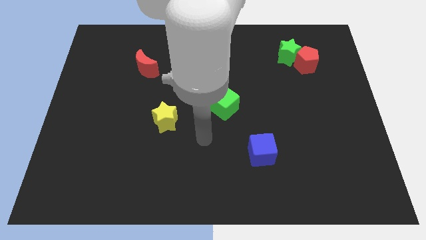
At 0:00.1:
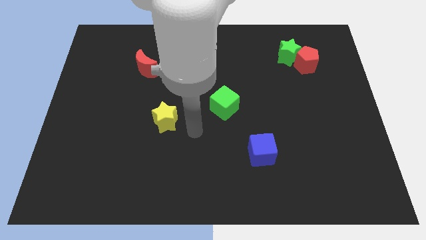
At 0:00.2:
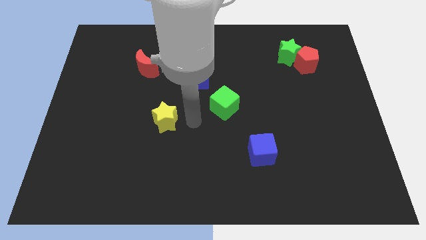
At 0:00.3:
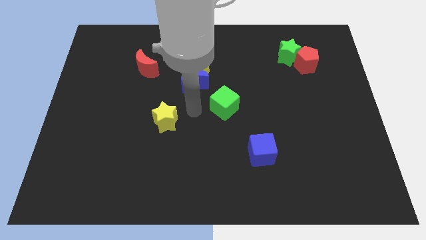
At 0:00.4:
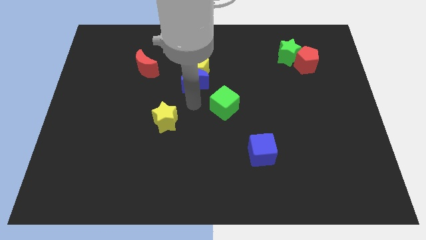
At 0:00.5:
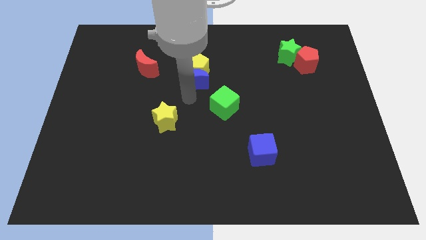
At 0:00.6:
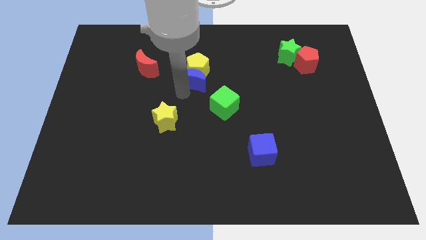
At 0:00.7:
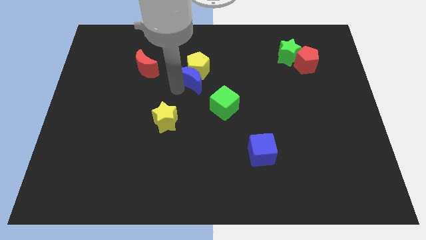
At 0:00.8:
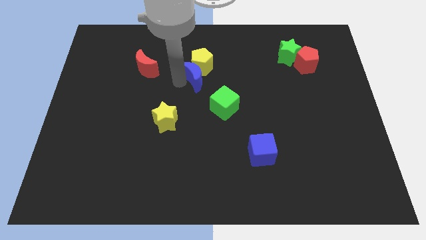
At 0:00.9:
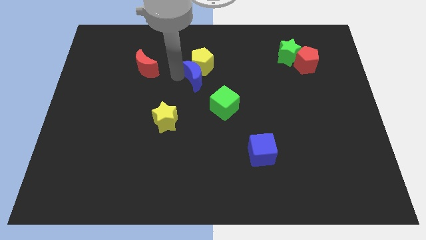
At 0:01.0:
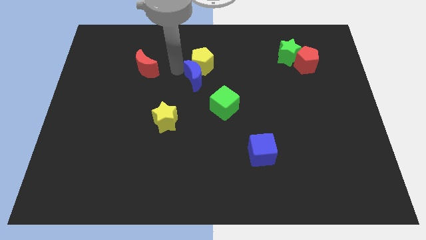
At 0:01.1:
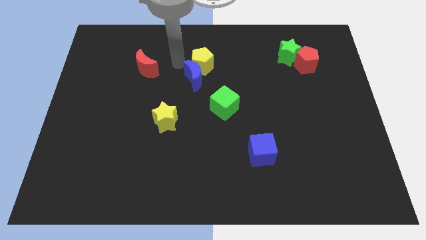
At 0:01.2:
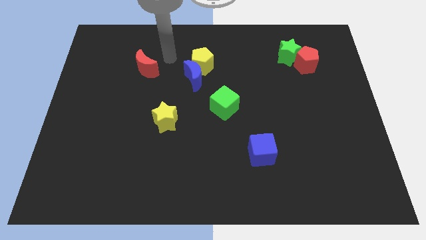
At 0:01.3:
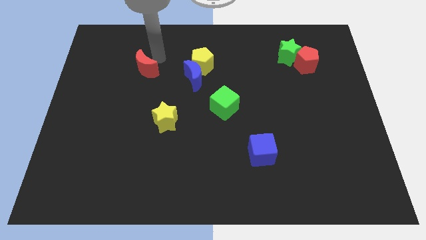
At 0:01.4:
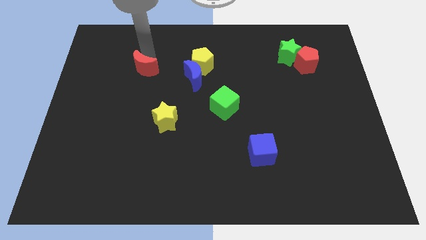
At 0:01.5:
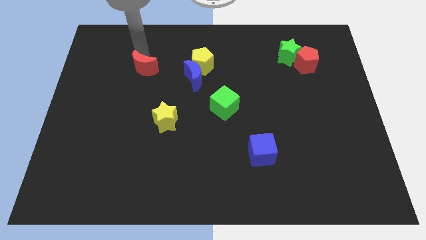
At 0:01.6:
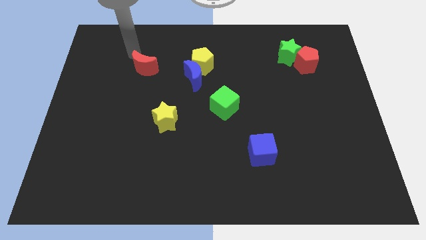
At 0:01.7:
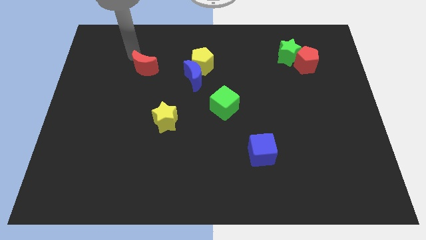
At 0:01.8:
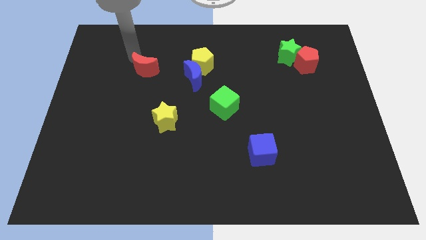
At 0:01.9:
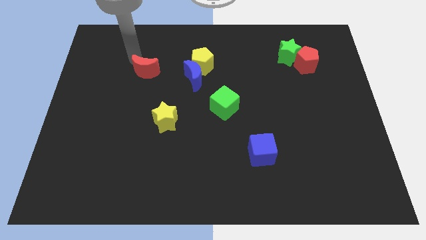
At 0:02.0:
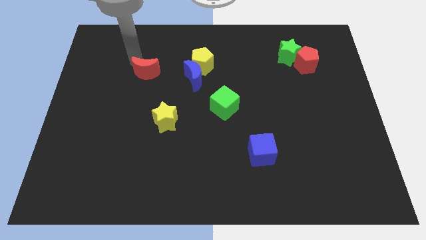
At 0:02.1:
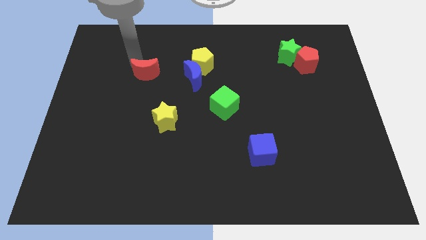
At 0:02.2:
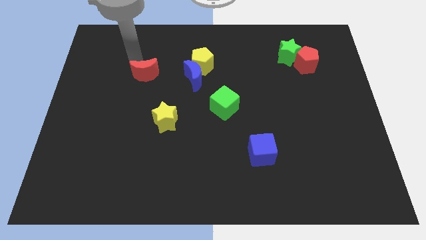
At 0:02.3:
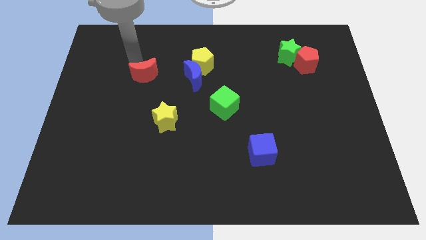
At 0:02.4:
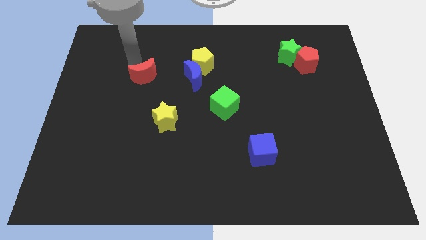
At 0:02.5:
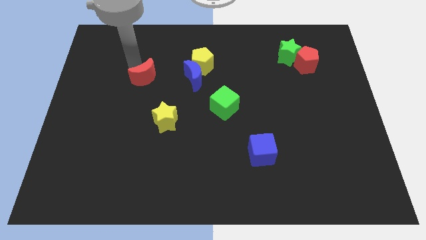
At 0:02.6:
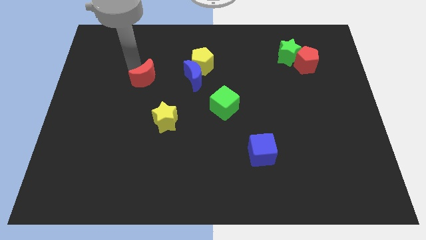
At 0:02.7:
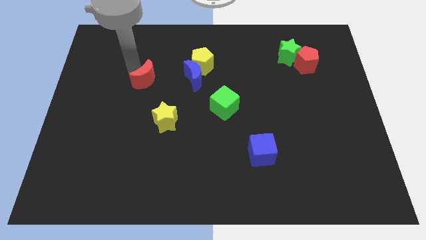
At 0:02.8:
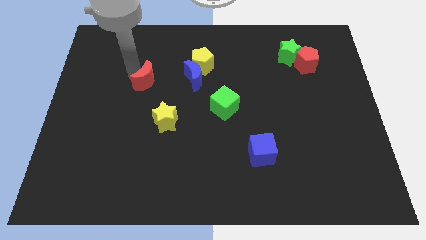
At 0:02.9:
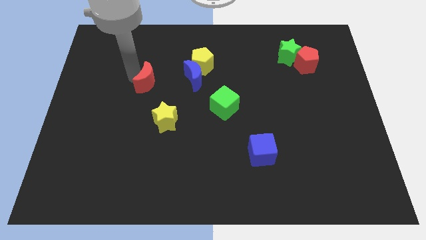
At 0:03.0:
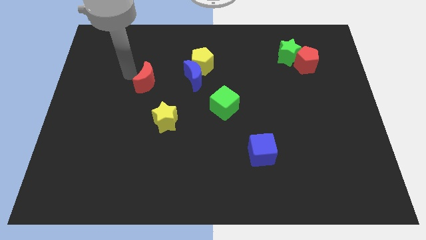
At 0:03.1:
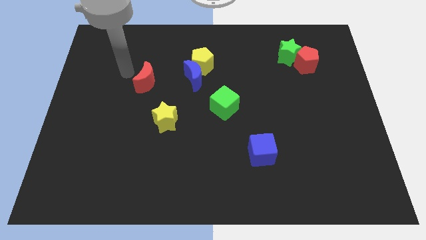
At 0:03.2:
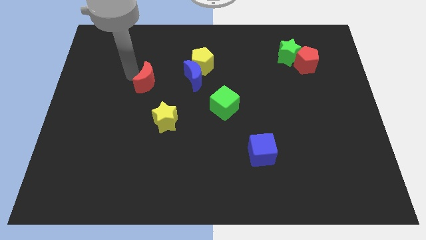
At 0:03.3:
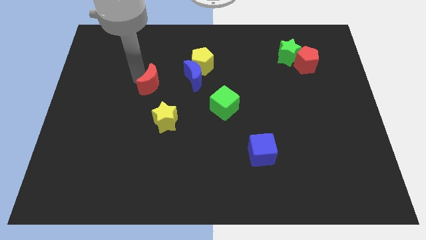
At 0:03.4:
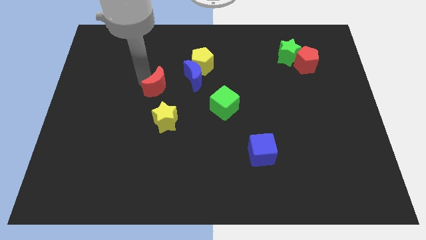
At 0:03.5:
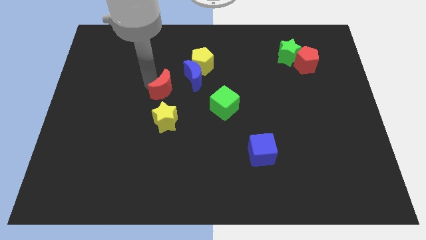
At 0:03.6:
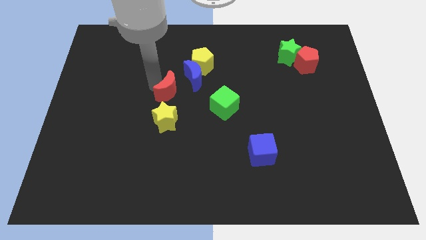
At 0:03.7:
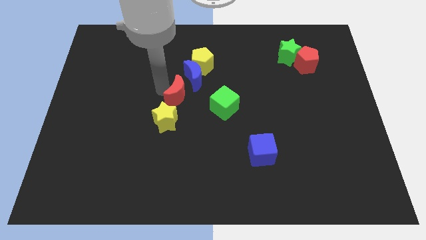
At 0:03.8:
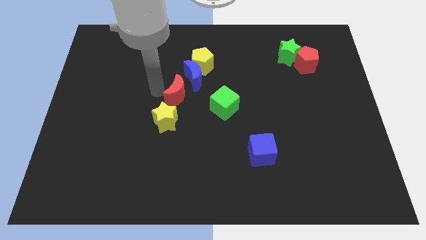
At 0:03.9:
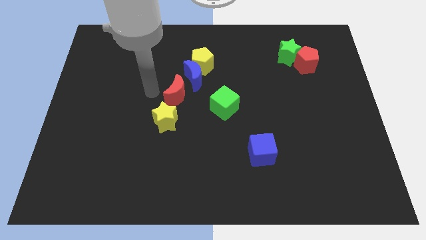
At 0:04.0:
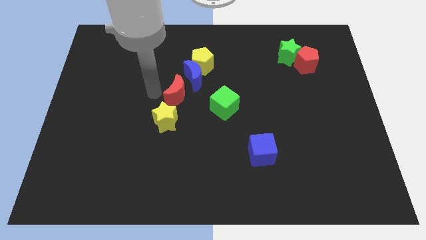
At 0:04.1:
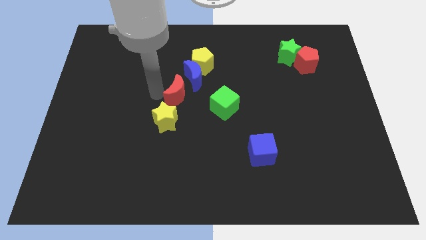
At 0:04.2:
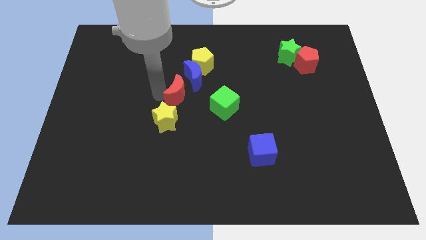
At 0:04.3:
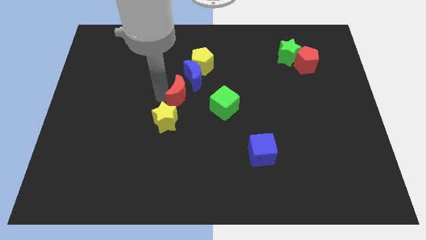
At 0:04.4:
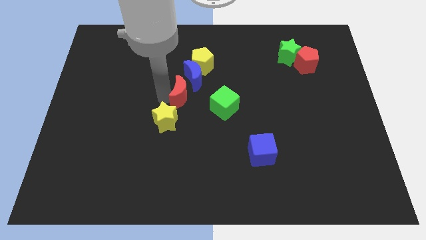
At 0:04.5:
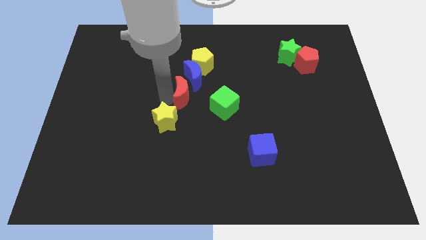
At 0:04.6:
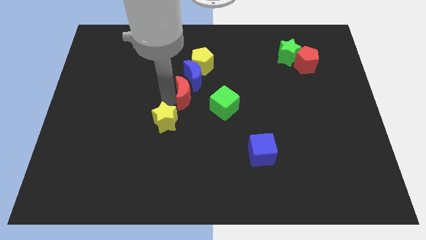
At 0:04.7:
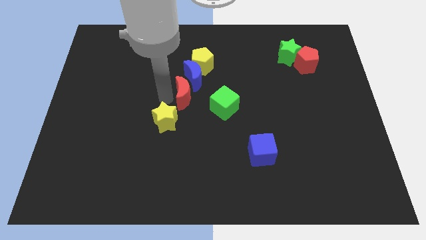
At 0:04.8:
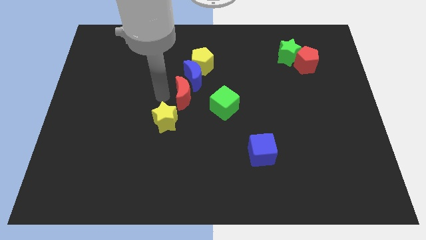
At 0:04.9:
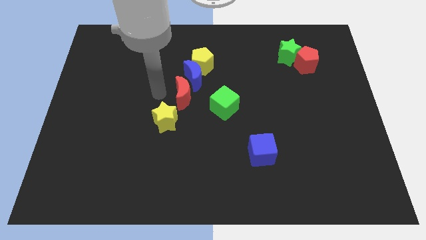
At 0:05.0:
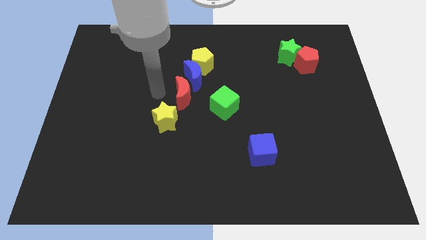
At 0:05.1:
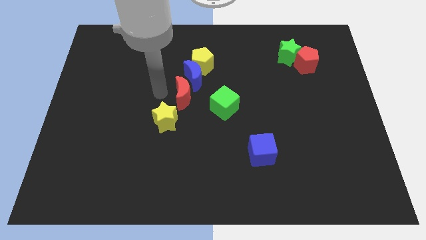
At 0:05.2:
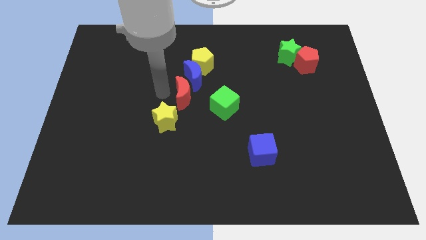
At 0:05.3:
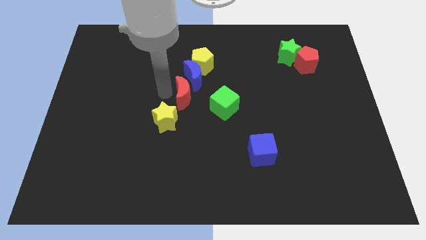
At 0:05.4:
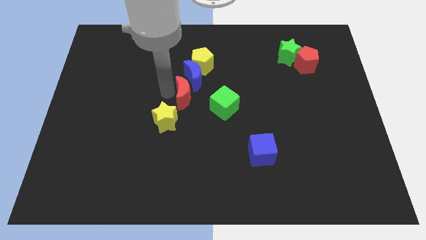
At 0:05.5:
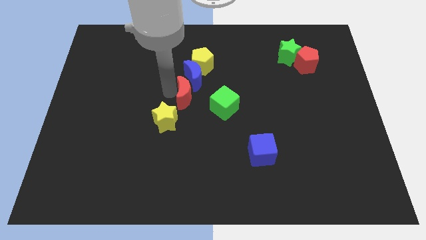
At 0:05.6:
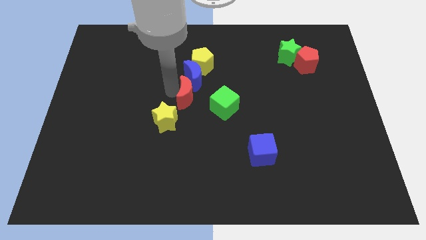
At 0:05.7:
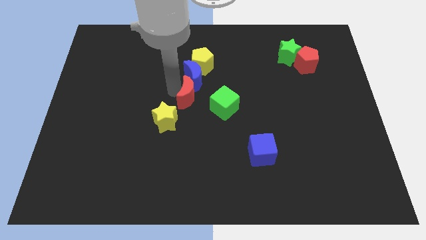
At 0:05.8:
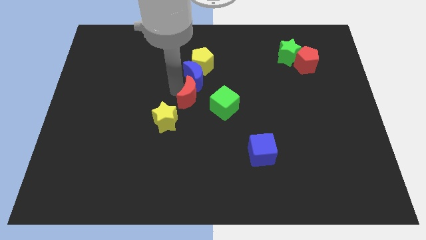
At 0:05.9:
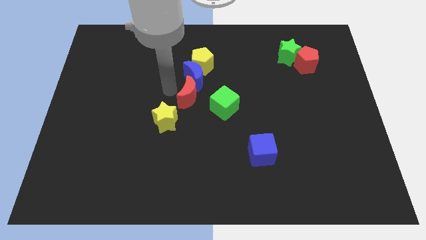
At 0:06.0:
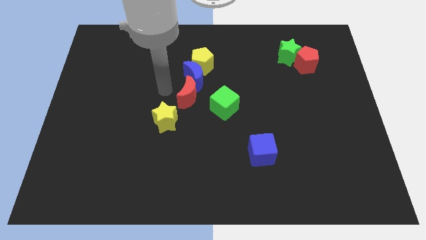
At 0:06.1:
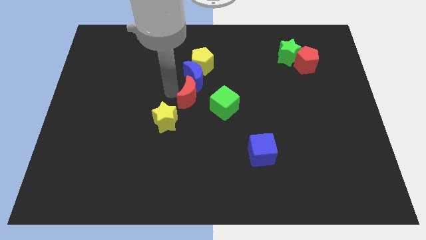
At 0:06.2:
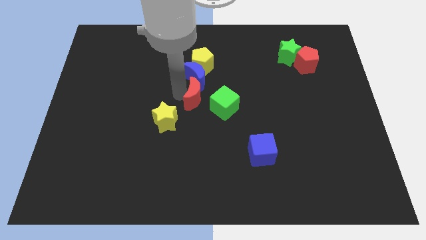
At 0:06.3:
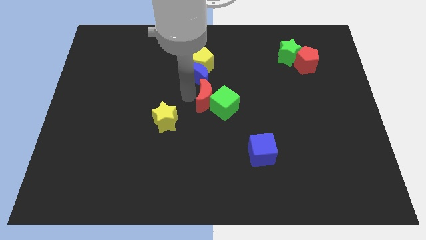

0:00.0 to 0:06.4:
push the red moon towards the green cube

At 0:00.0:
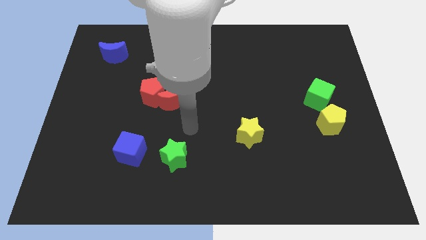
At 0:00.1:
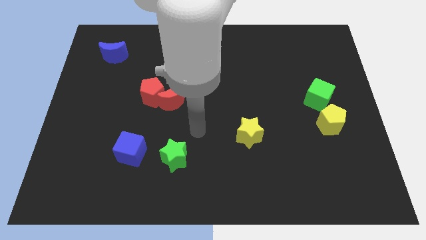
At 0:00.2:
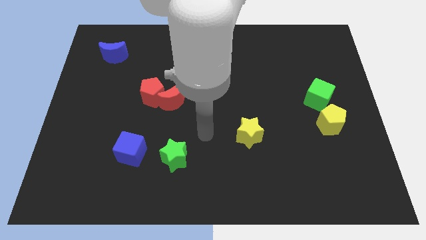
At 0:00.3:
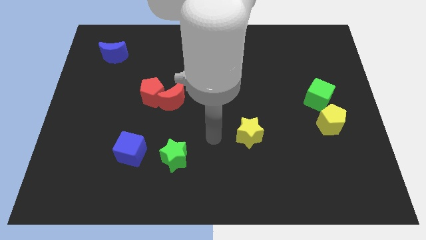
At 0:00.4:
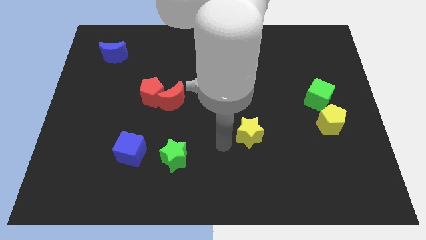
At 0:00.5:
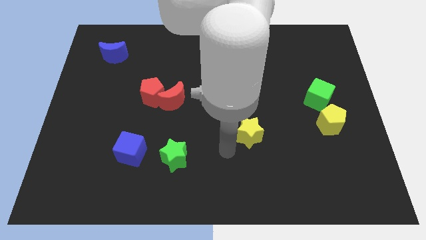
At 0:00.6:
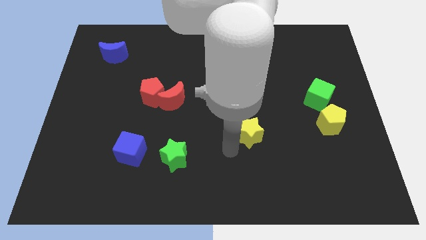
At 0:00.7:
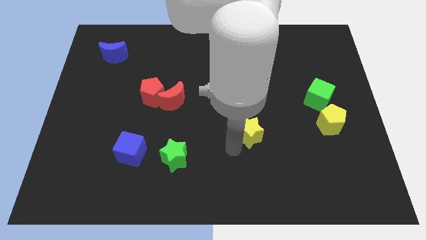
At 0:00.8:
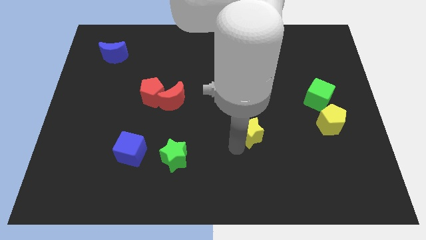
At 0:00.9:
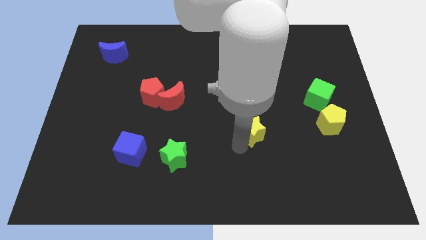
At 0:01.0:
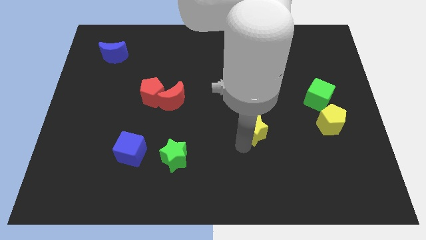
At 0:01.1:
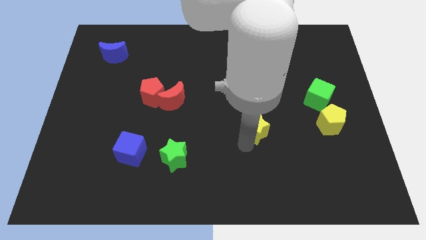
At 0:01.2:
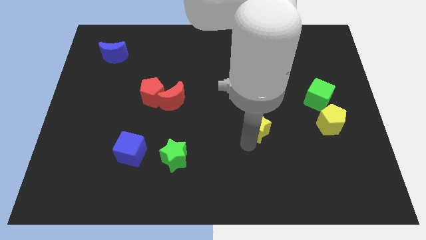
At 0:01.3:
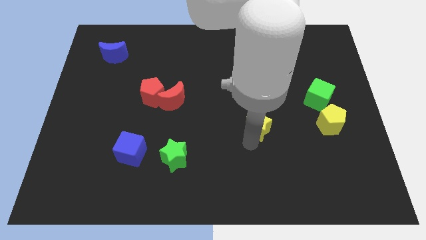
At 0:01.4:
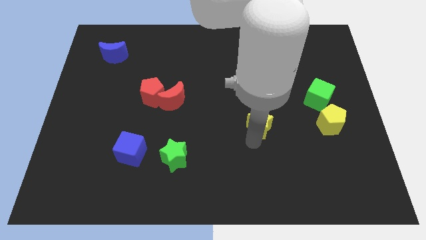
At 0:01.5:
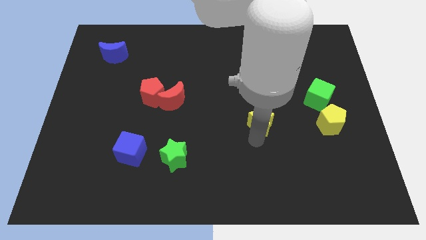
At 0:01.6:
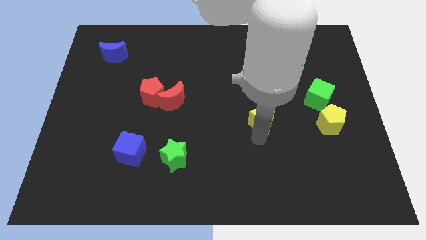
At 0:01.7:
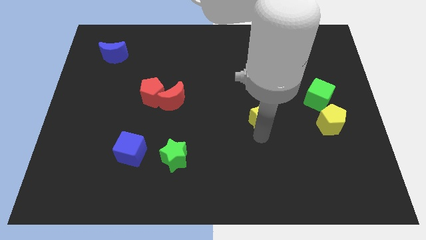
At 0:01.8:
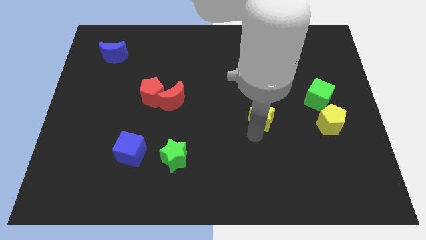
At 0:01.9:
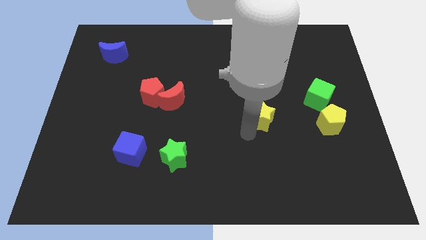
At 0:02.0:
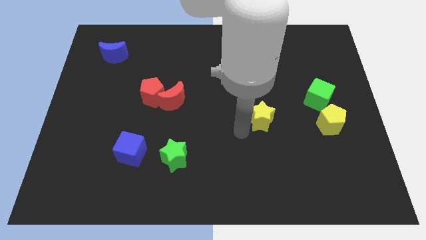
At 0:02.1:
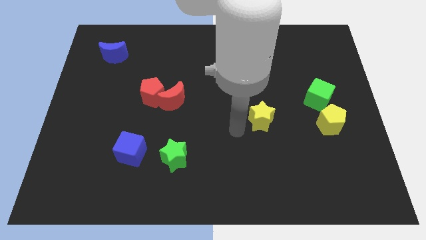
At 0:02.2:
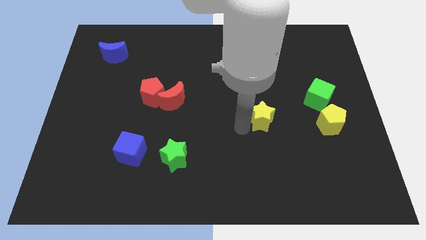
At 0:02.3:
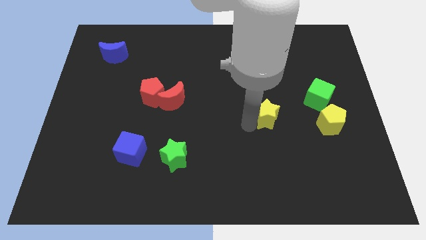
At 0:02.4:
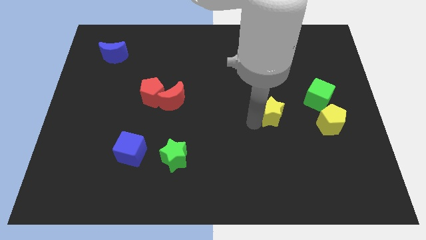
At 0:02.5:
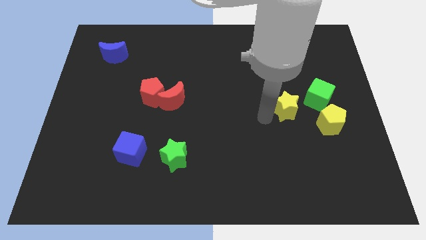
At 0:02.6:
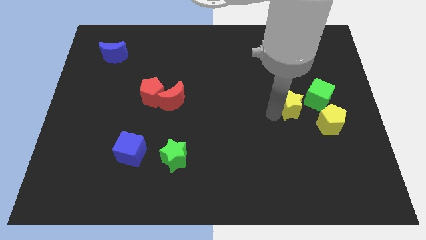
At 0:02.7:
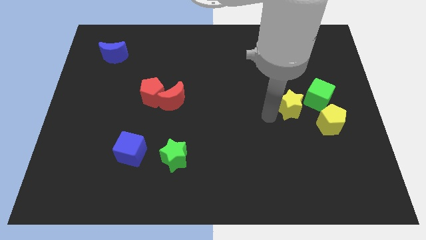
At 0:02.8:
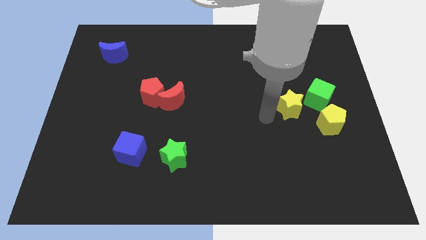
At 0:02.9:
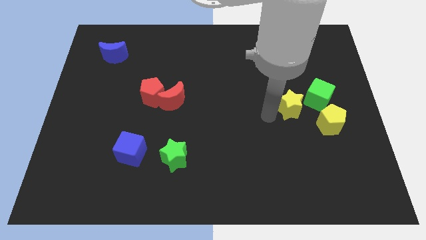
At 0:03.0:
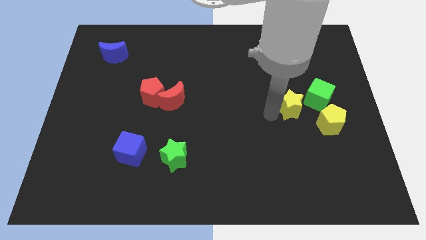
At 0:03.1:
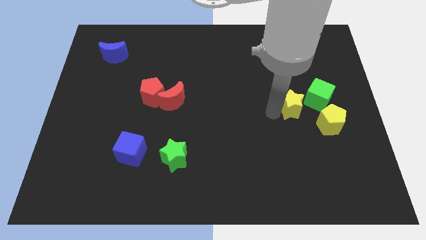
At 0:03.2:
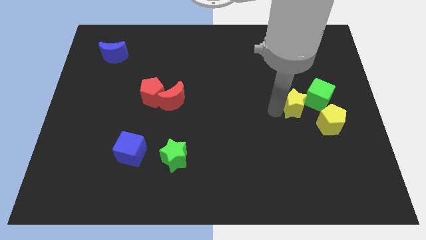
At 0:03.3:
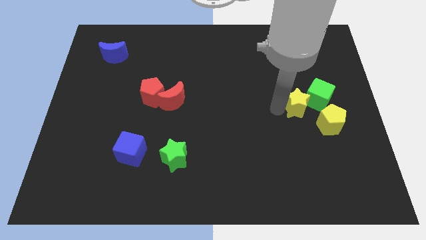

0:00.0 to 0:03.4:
slide the yellow star close to the green cube
